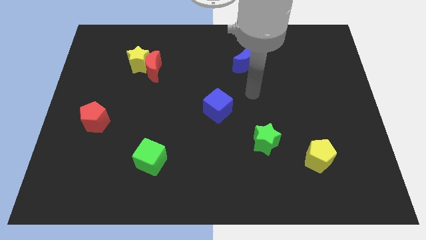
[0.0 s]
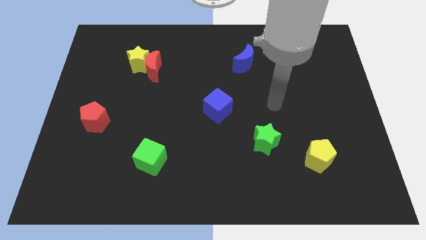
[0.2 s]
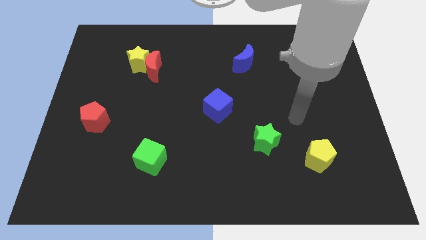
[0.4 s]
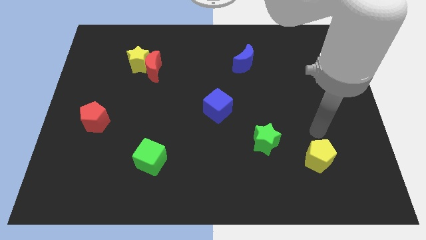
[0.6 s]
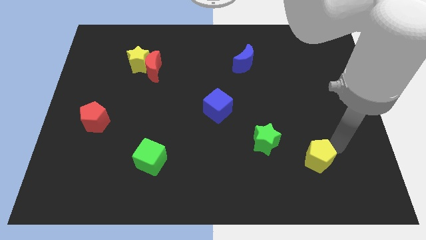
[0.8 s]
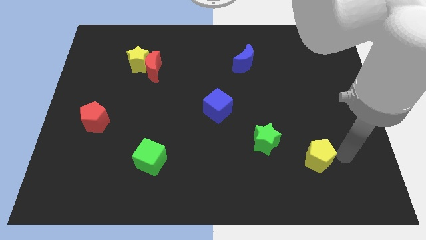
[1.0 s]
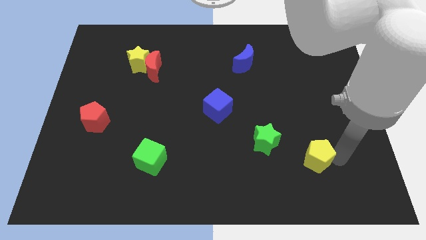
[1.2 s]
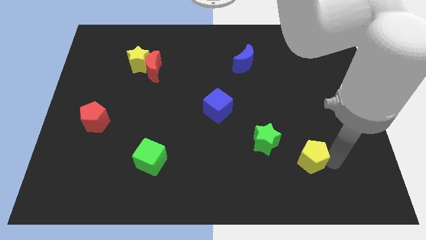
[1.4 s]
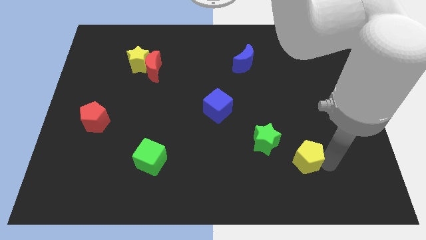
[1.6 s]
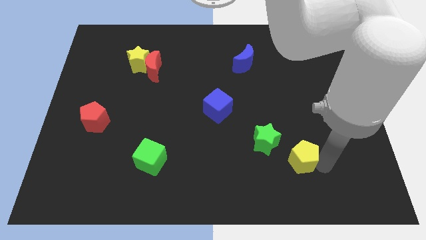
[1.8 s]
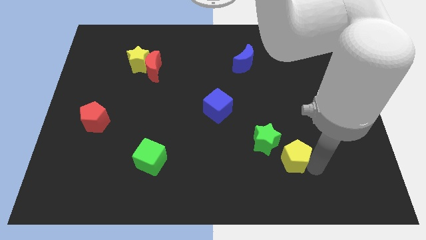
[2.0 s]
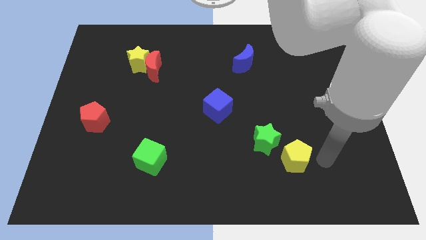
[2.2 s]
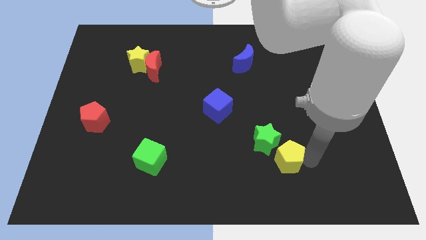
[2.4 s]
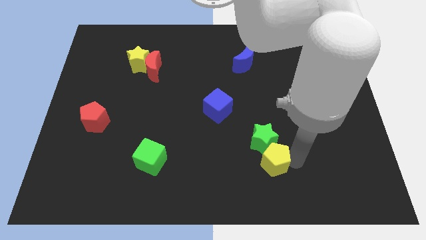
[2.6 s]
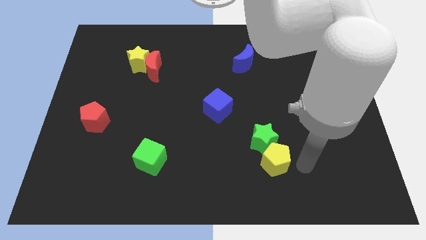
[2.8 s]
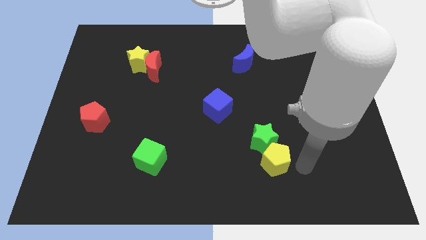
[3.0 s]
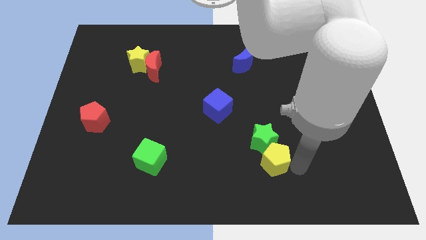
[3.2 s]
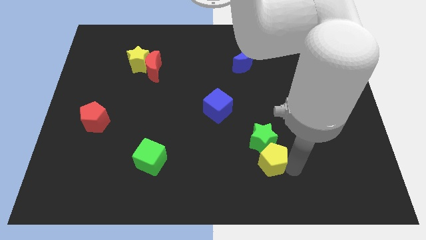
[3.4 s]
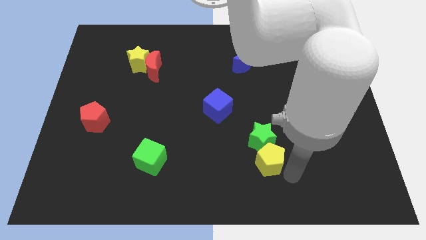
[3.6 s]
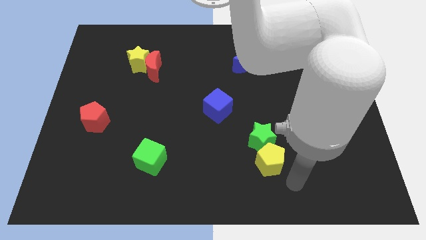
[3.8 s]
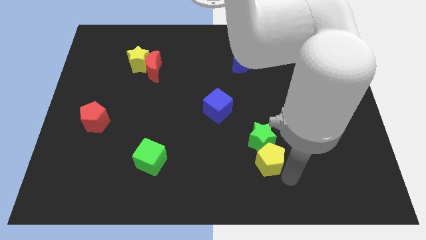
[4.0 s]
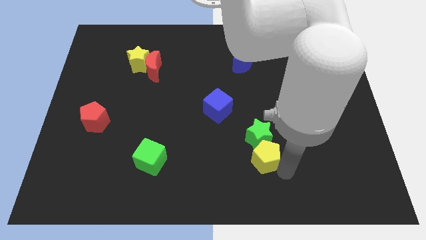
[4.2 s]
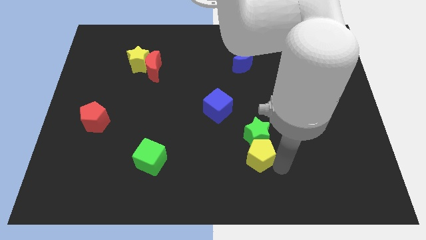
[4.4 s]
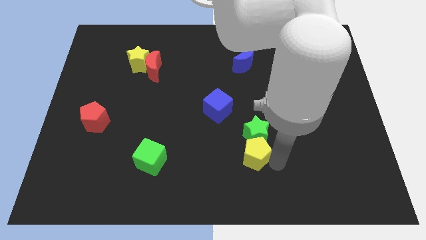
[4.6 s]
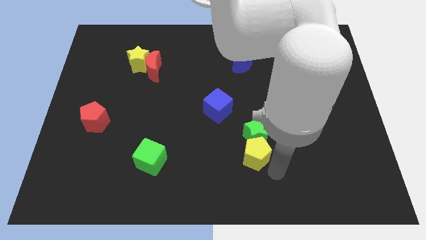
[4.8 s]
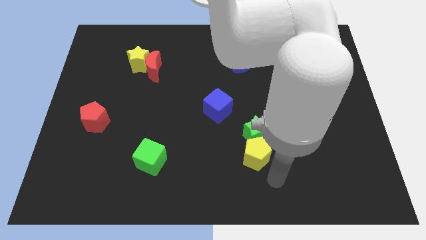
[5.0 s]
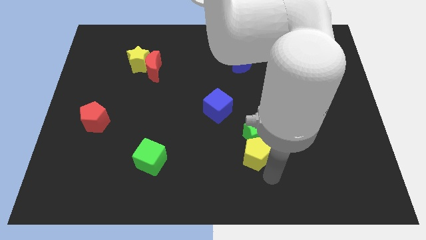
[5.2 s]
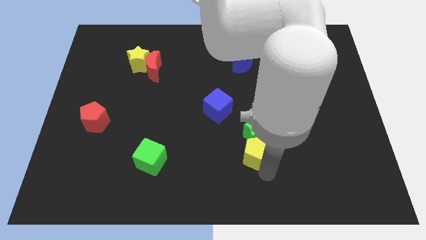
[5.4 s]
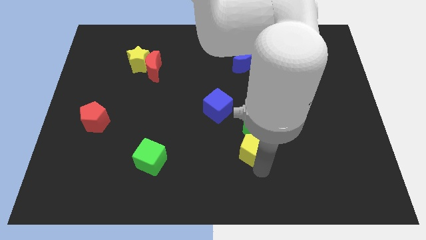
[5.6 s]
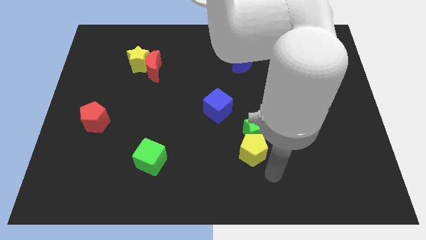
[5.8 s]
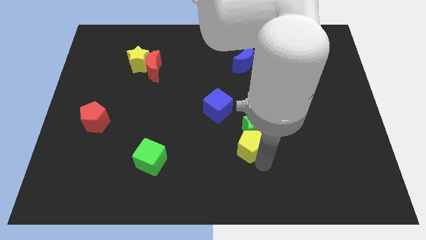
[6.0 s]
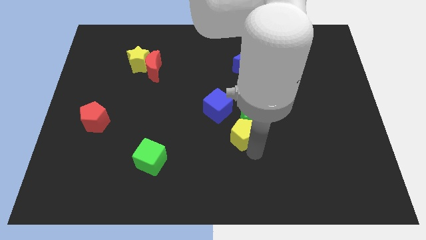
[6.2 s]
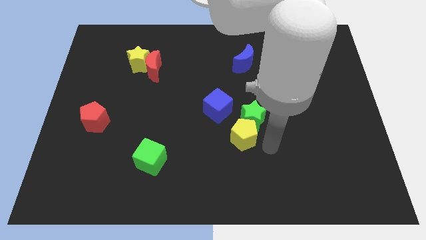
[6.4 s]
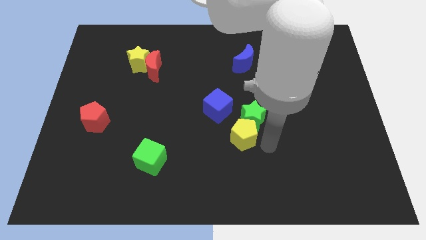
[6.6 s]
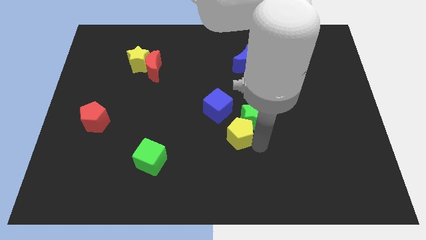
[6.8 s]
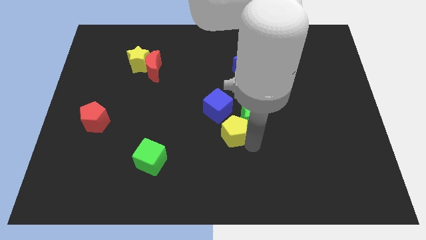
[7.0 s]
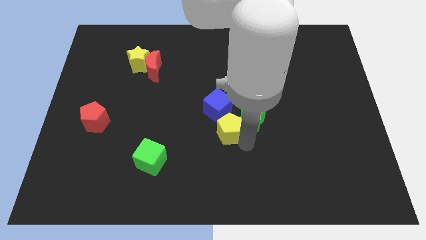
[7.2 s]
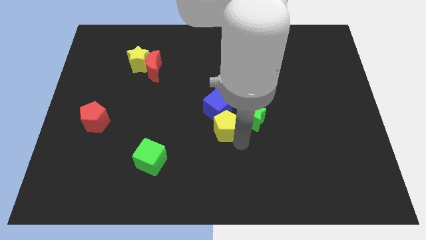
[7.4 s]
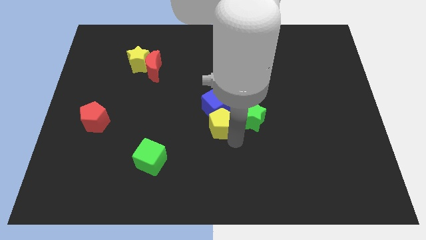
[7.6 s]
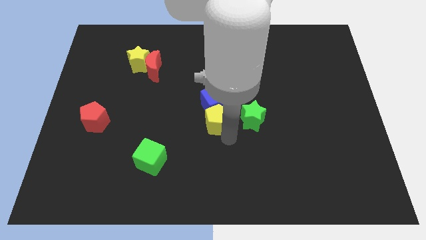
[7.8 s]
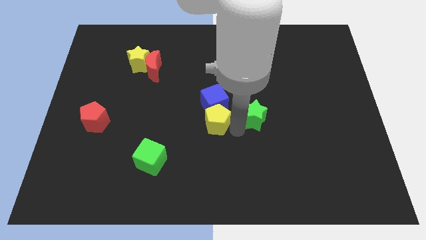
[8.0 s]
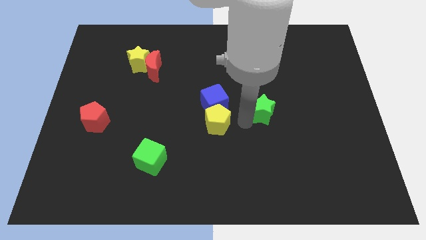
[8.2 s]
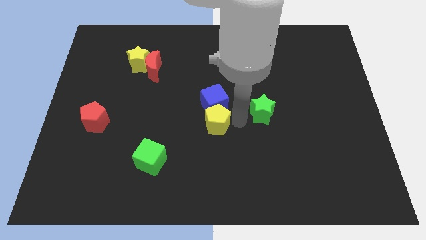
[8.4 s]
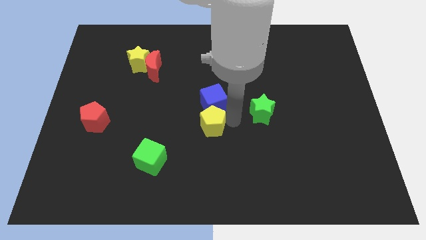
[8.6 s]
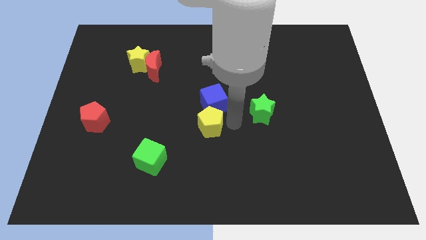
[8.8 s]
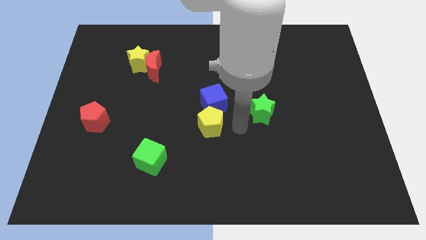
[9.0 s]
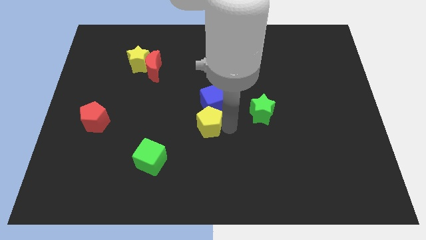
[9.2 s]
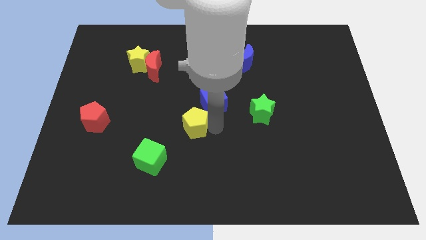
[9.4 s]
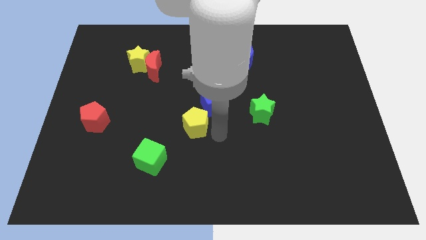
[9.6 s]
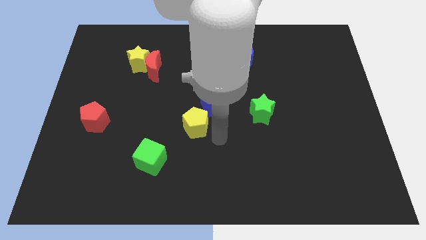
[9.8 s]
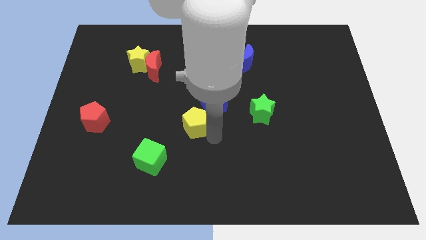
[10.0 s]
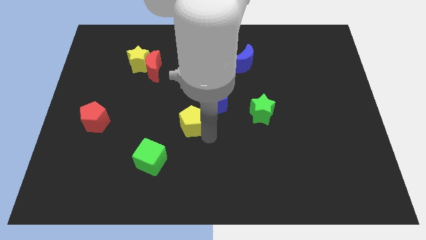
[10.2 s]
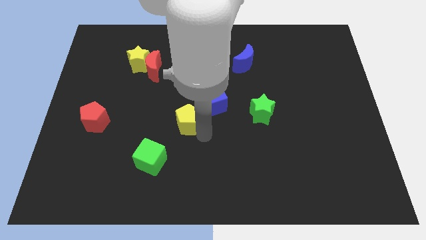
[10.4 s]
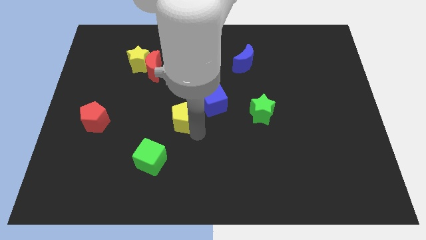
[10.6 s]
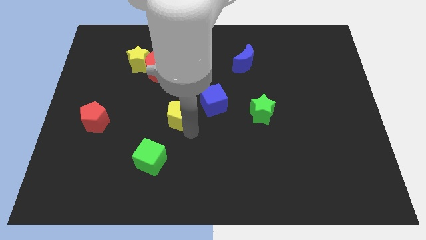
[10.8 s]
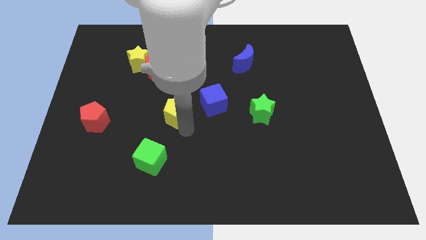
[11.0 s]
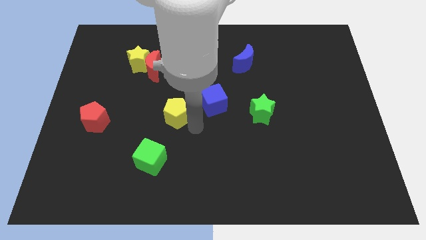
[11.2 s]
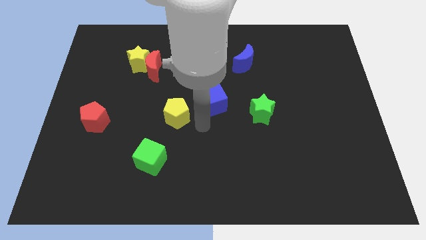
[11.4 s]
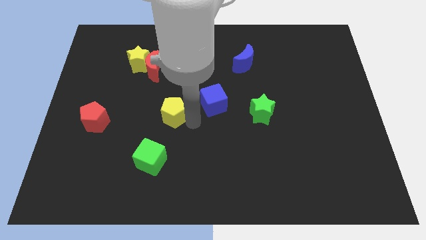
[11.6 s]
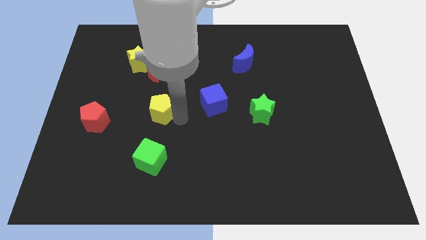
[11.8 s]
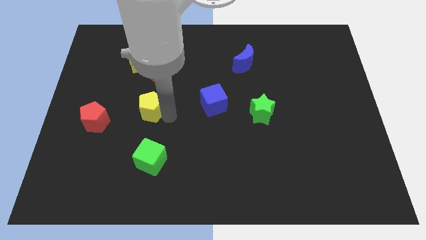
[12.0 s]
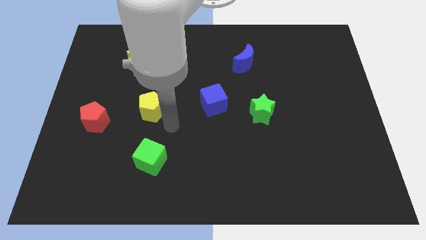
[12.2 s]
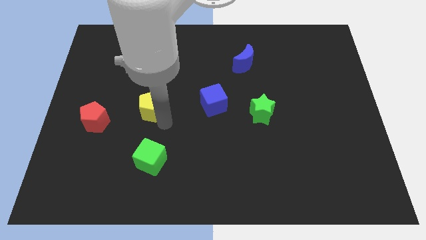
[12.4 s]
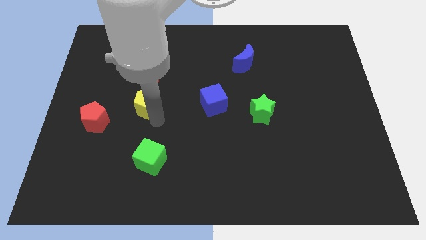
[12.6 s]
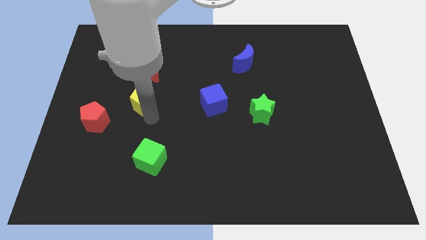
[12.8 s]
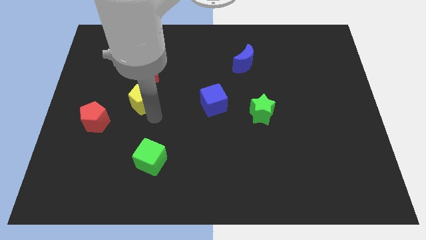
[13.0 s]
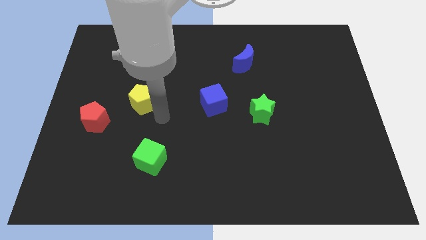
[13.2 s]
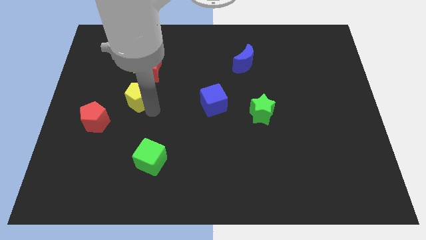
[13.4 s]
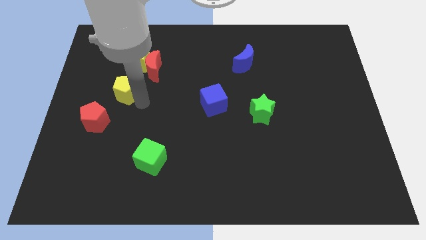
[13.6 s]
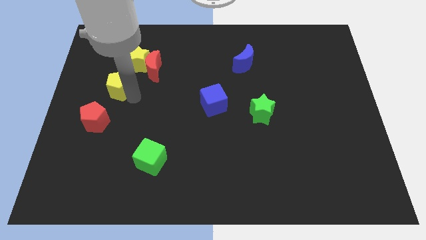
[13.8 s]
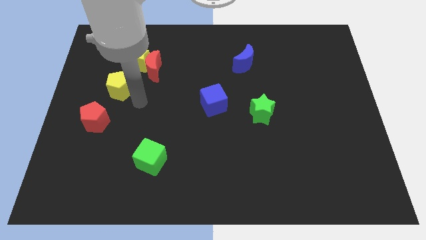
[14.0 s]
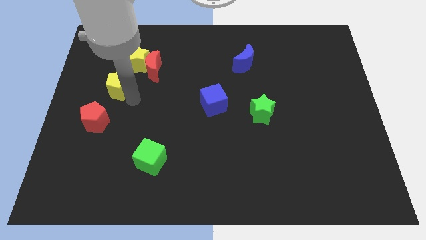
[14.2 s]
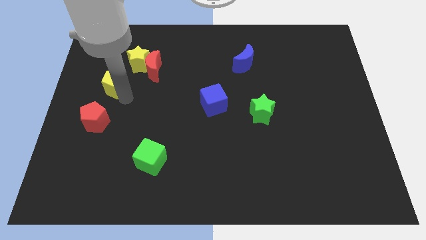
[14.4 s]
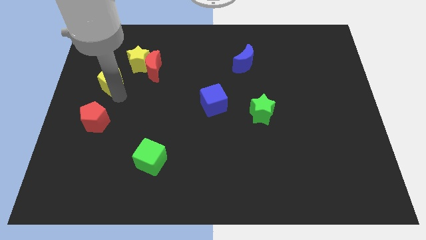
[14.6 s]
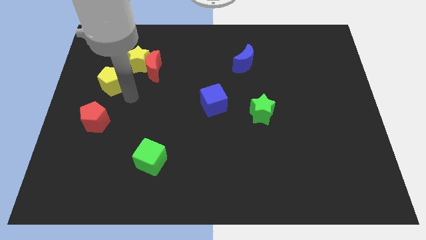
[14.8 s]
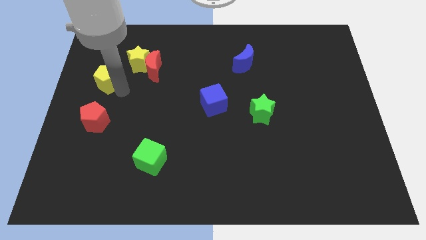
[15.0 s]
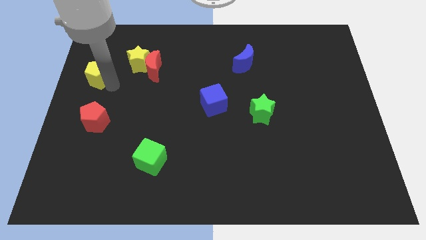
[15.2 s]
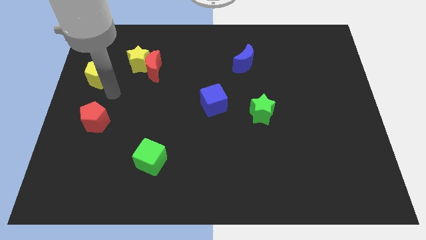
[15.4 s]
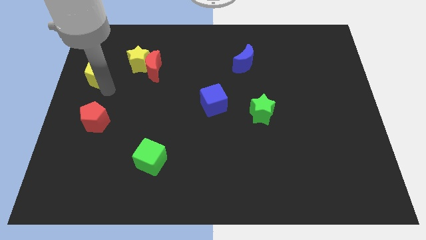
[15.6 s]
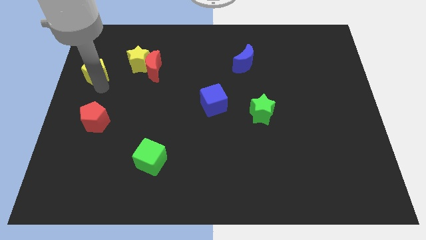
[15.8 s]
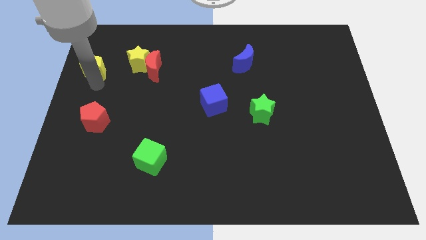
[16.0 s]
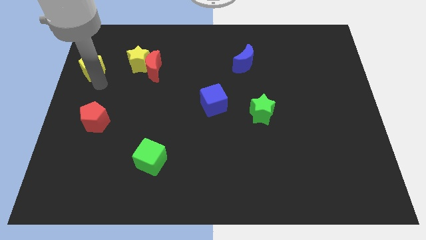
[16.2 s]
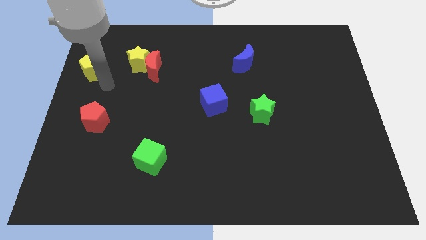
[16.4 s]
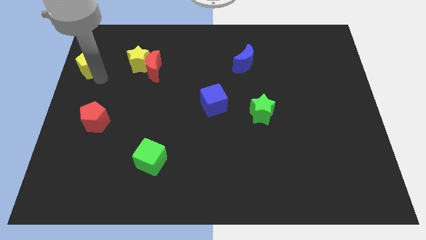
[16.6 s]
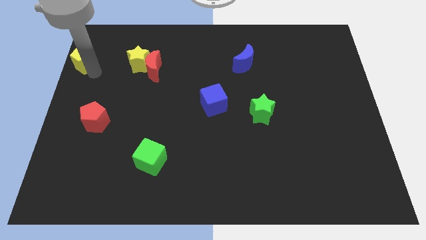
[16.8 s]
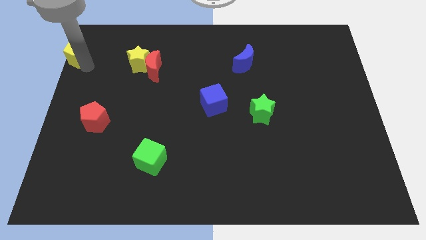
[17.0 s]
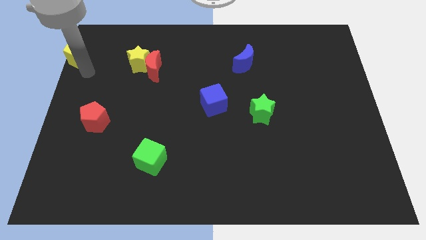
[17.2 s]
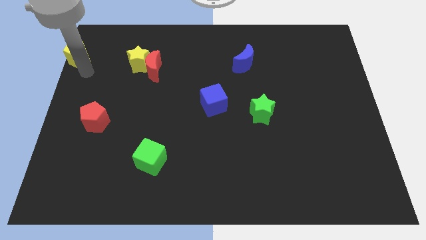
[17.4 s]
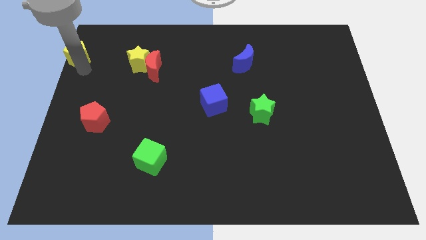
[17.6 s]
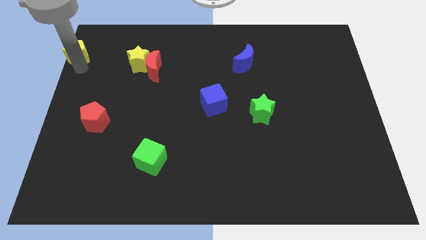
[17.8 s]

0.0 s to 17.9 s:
put the yellow pentagon to the top left of the board
